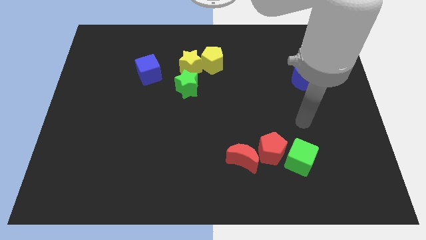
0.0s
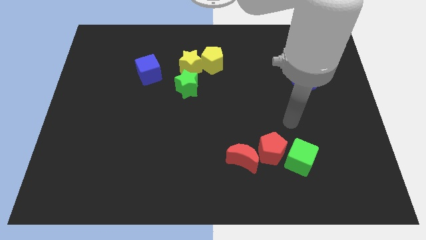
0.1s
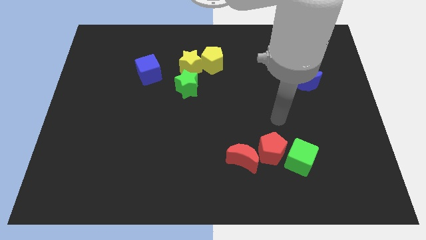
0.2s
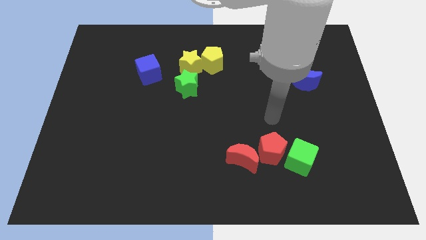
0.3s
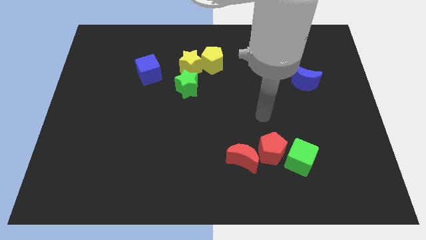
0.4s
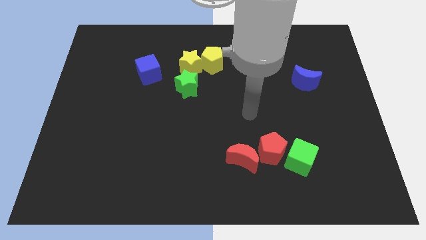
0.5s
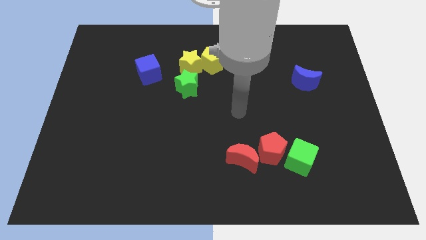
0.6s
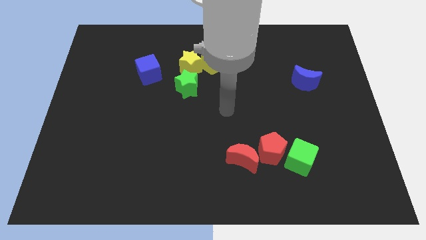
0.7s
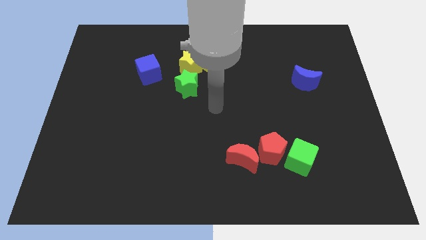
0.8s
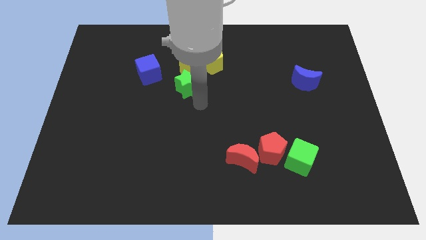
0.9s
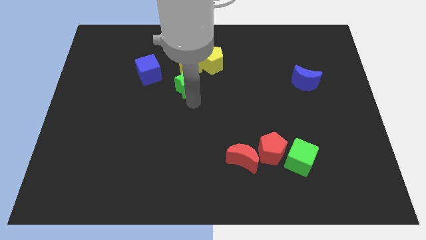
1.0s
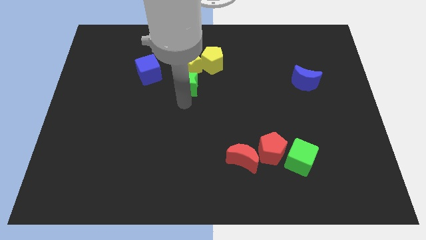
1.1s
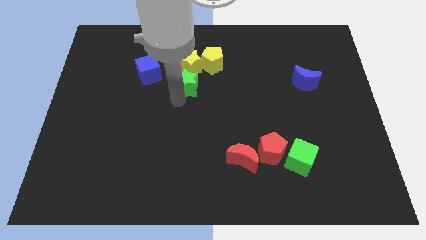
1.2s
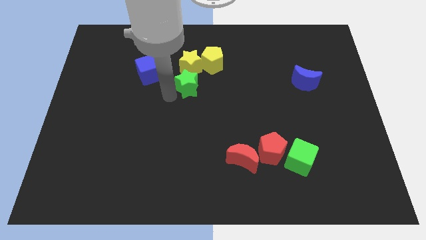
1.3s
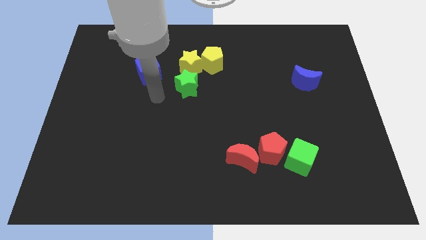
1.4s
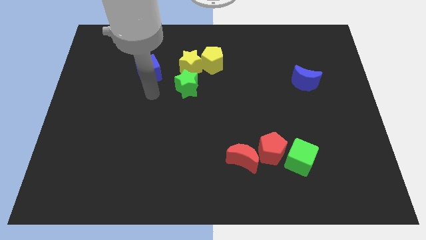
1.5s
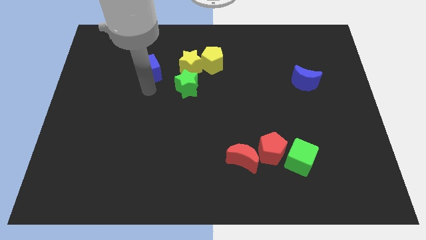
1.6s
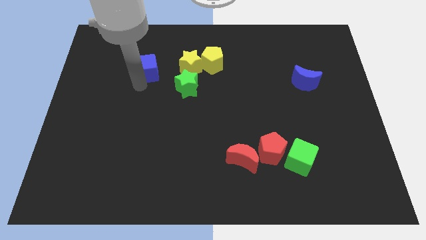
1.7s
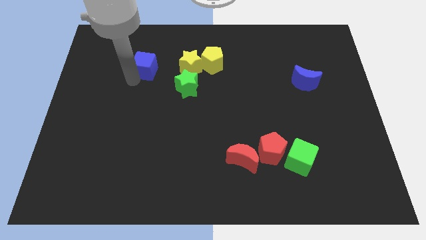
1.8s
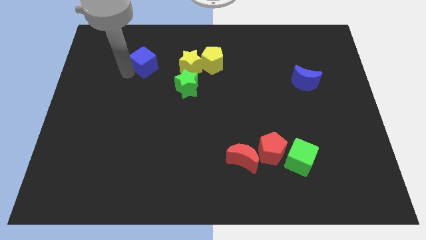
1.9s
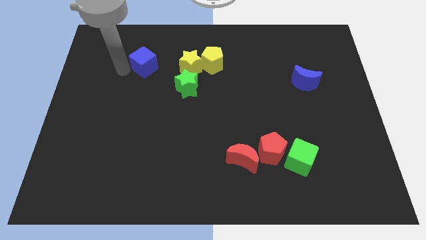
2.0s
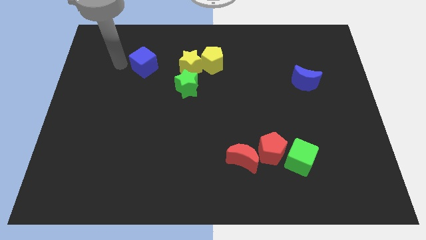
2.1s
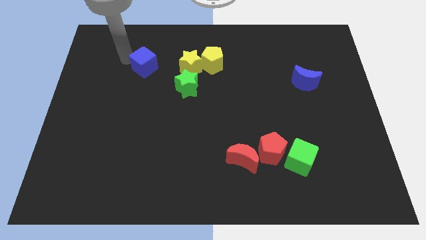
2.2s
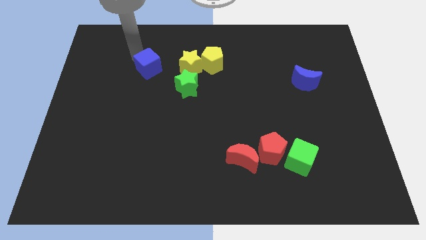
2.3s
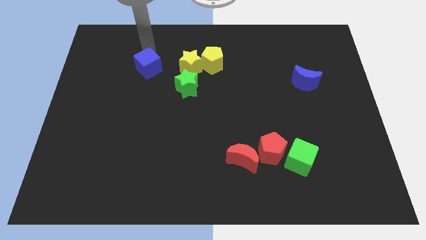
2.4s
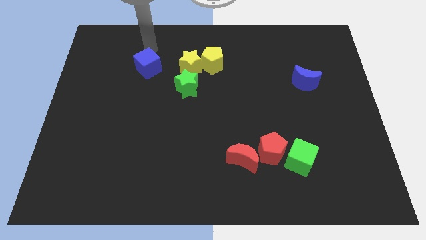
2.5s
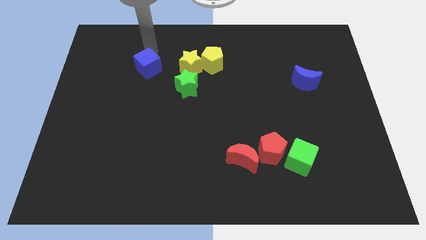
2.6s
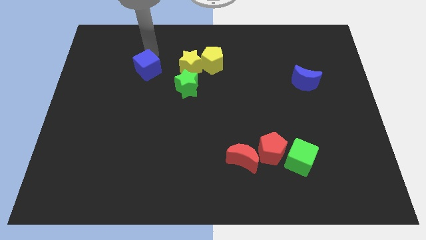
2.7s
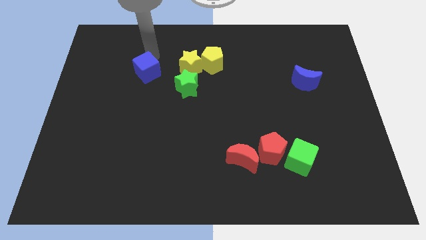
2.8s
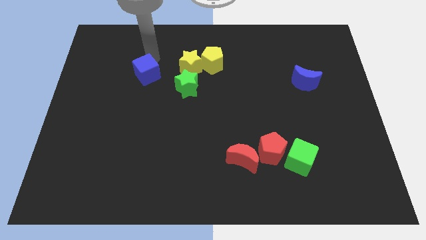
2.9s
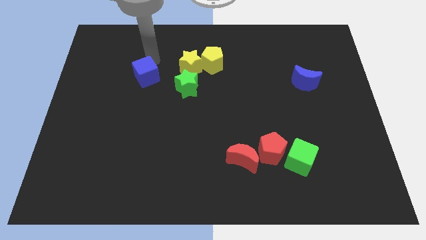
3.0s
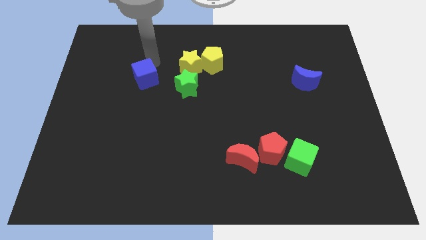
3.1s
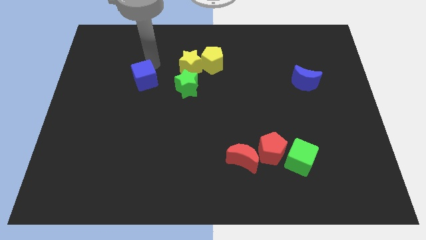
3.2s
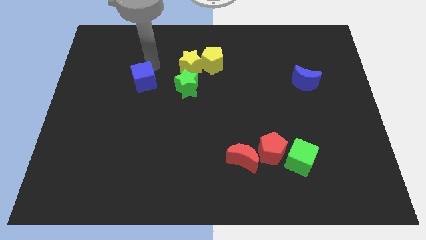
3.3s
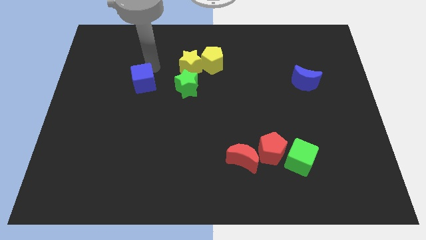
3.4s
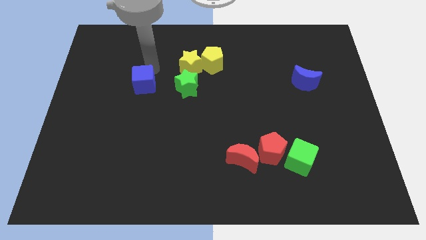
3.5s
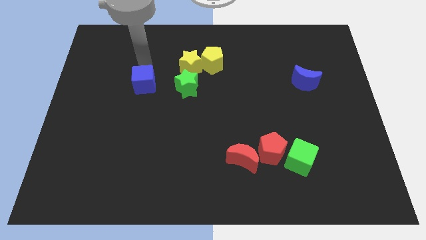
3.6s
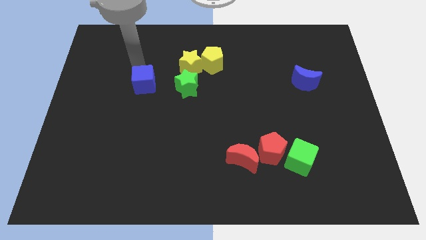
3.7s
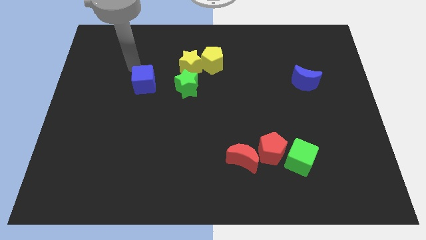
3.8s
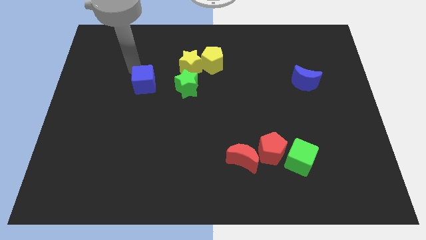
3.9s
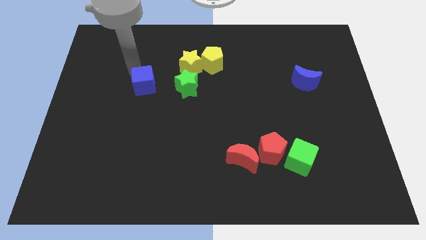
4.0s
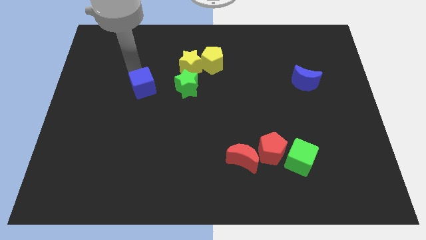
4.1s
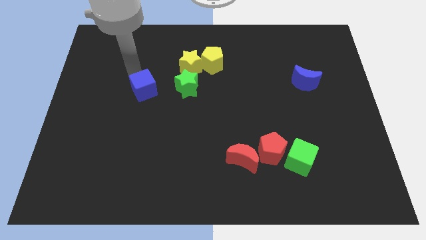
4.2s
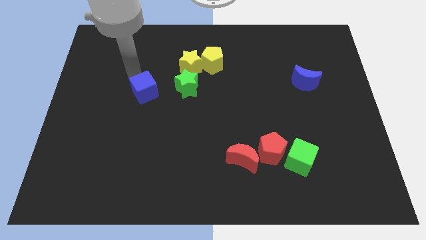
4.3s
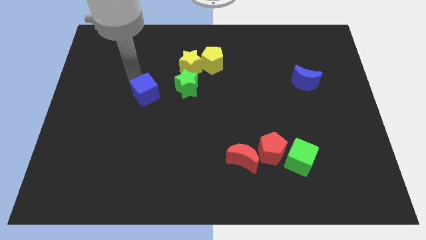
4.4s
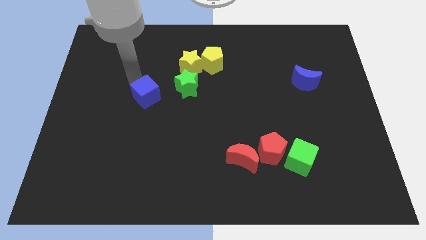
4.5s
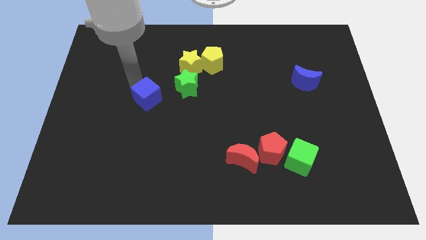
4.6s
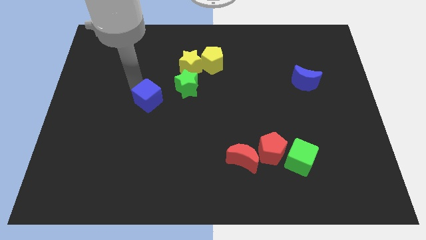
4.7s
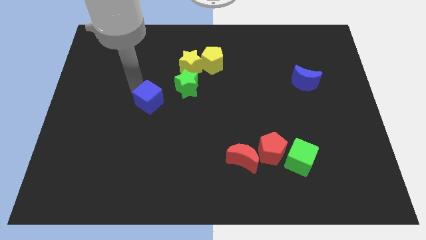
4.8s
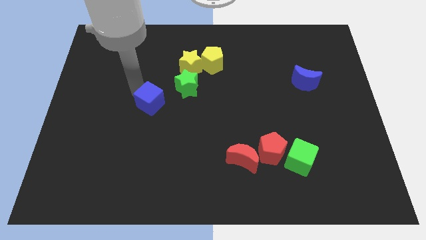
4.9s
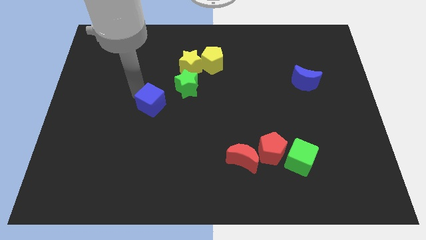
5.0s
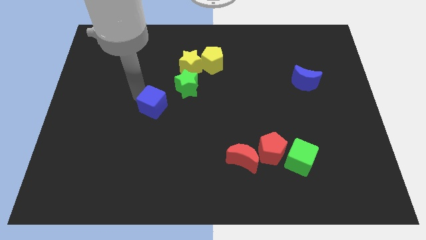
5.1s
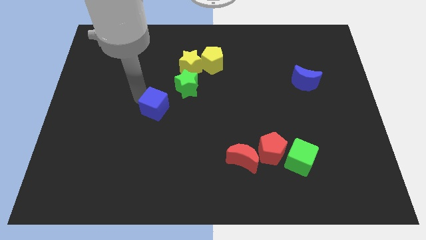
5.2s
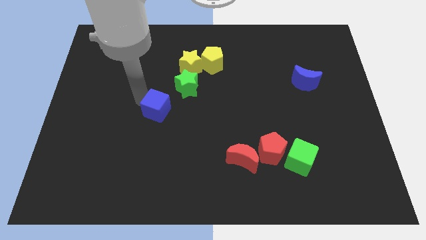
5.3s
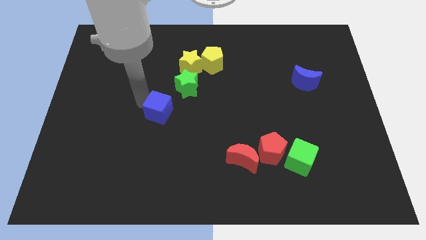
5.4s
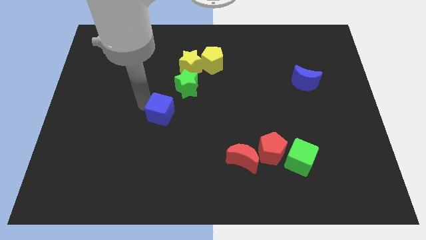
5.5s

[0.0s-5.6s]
put the blue cube to the middle of the board

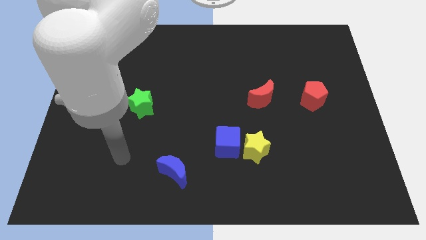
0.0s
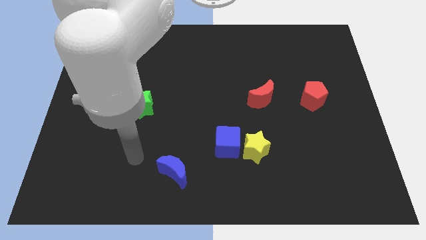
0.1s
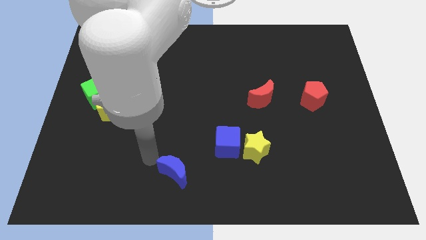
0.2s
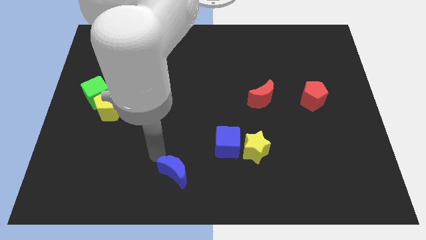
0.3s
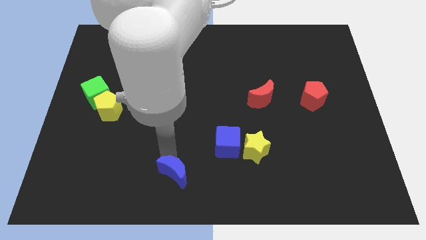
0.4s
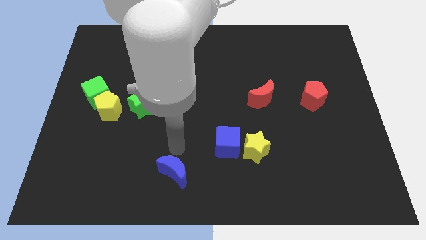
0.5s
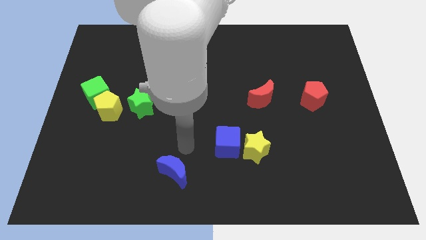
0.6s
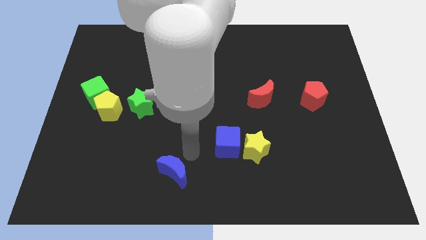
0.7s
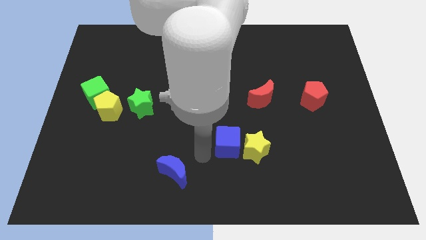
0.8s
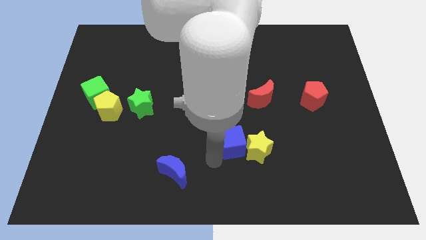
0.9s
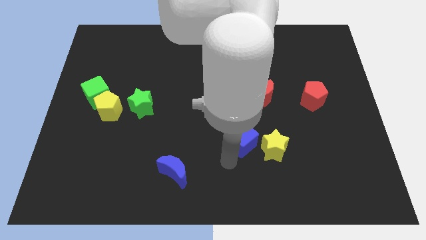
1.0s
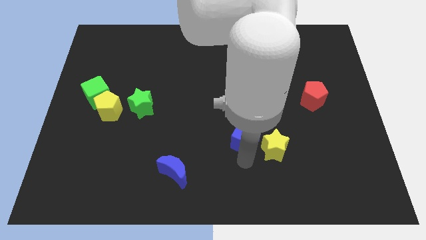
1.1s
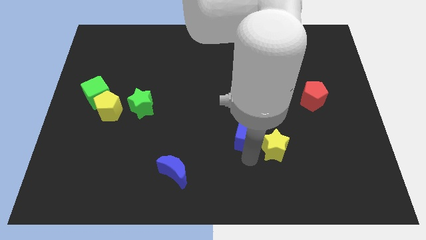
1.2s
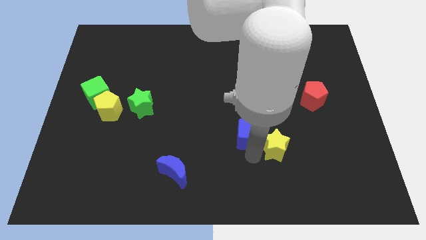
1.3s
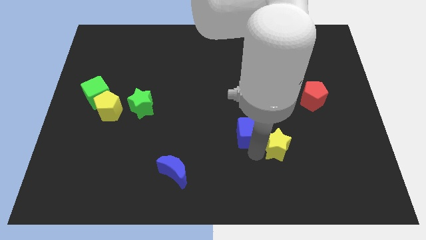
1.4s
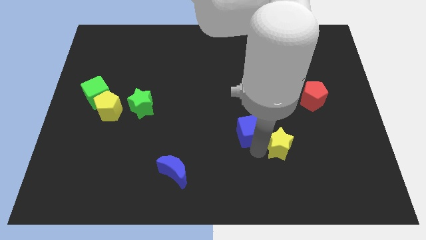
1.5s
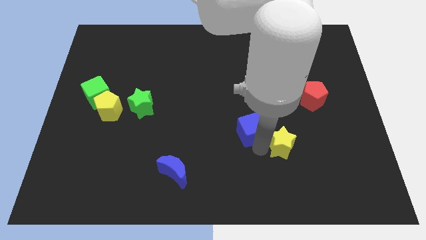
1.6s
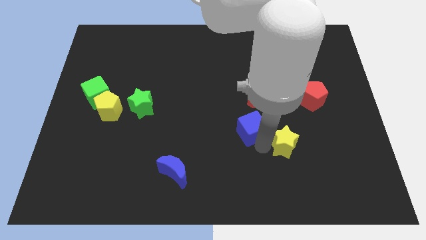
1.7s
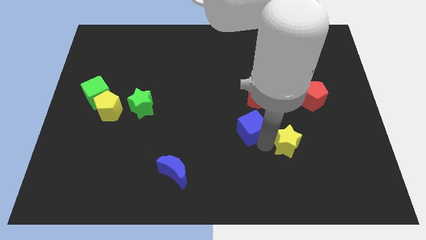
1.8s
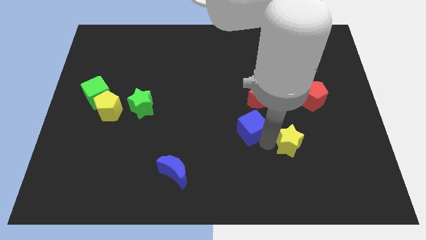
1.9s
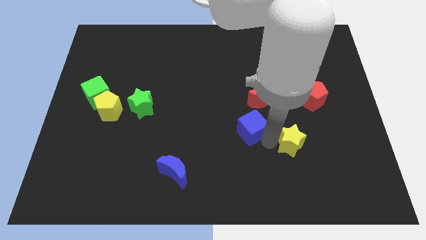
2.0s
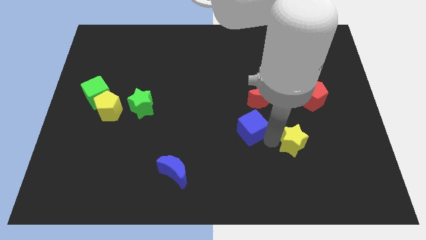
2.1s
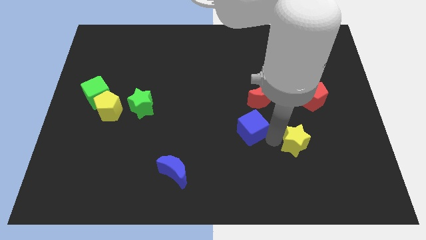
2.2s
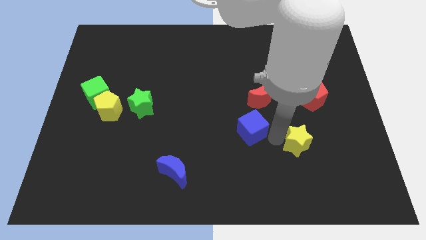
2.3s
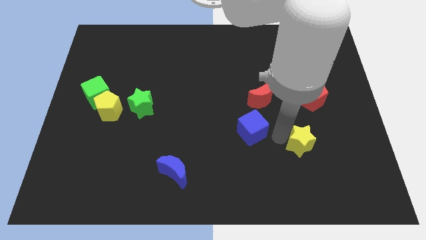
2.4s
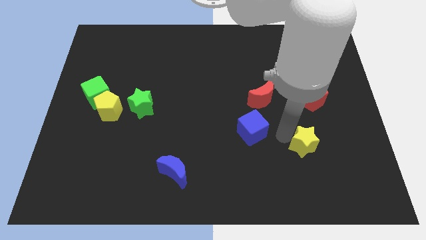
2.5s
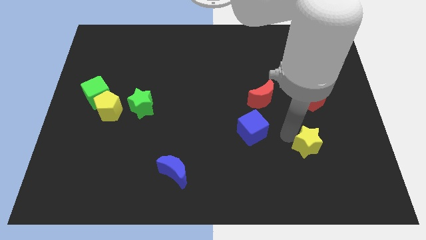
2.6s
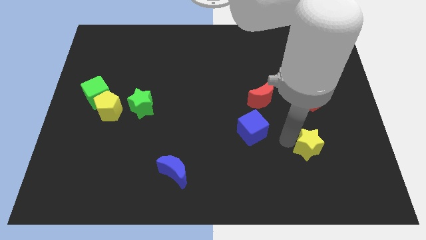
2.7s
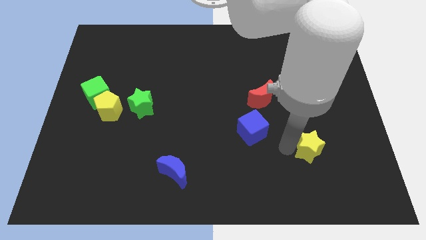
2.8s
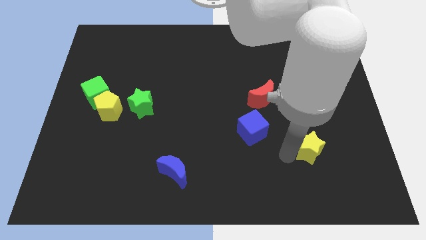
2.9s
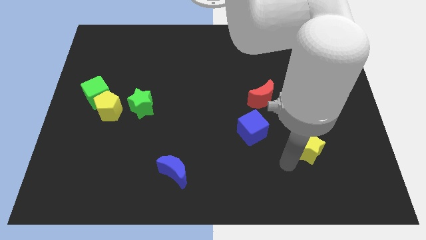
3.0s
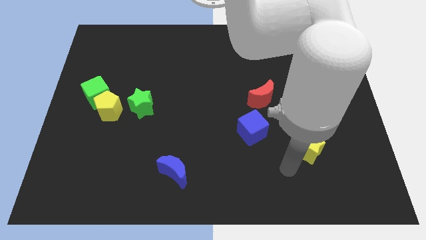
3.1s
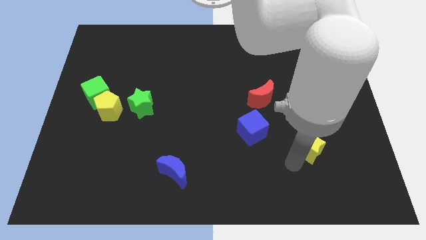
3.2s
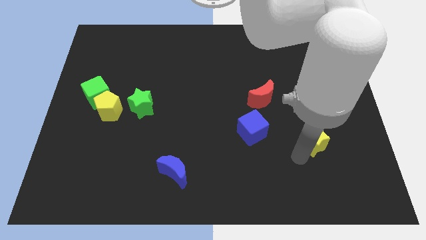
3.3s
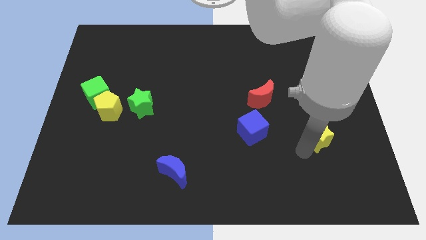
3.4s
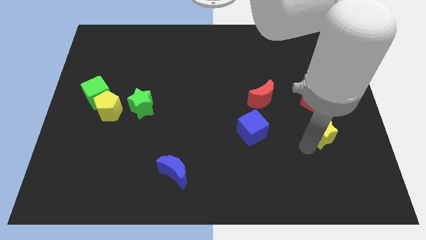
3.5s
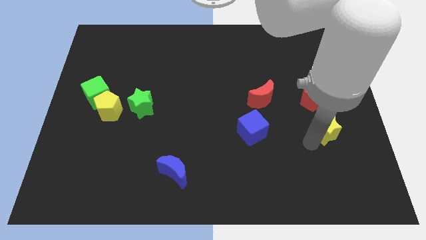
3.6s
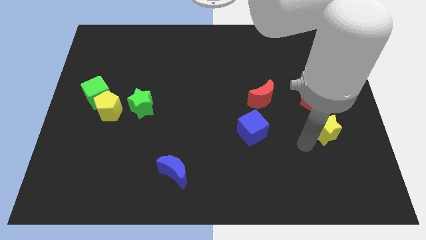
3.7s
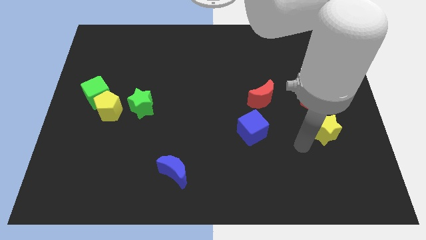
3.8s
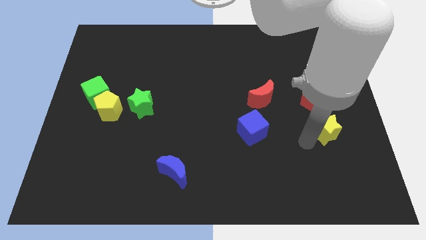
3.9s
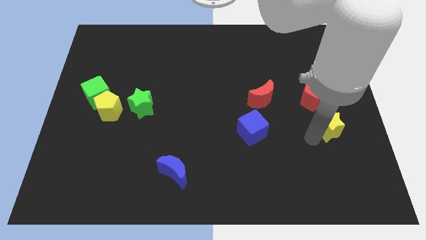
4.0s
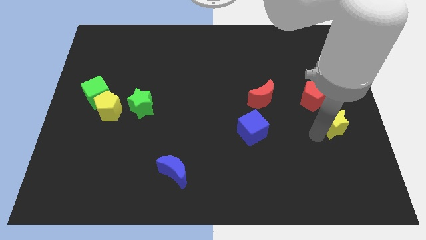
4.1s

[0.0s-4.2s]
move the yellow star to the right side
